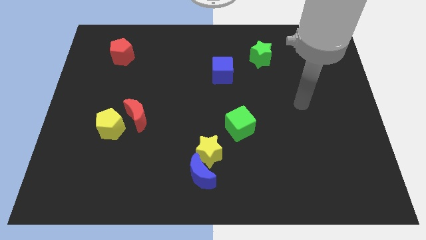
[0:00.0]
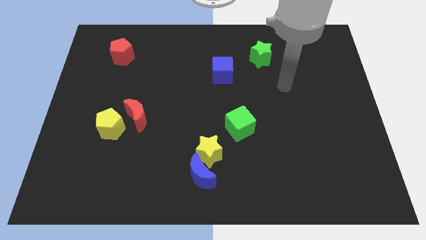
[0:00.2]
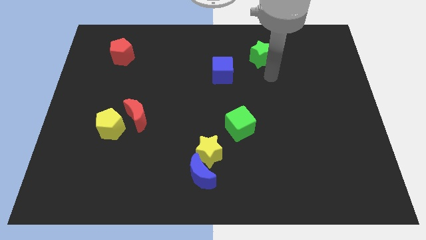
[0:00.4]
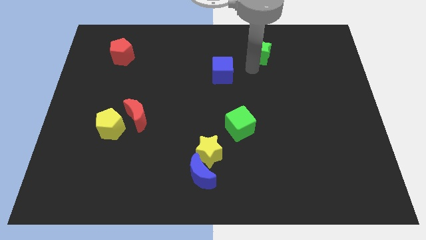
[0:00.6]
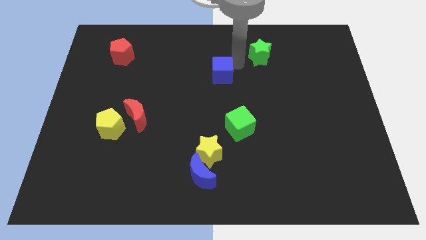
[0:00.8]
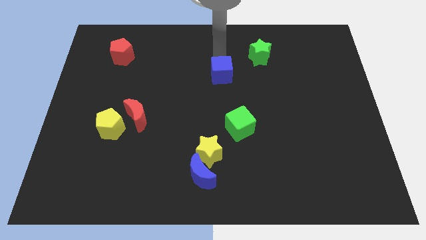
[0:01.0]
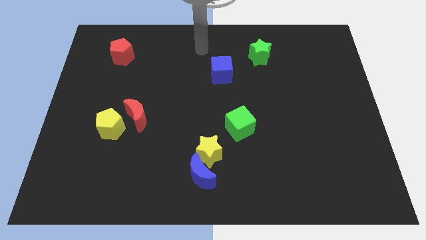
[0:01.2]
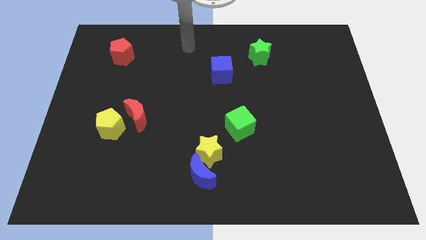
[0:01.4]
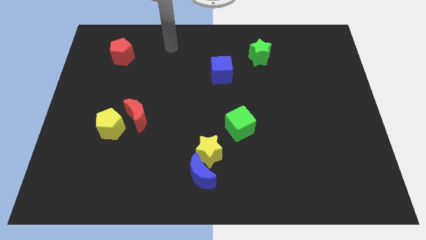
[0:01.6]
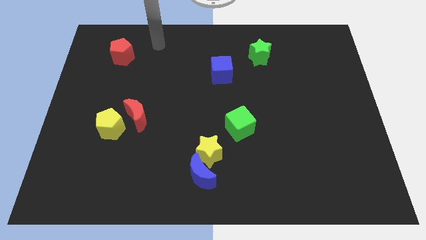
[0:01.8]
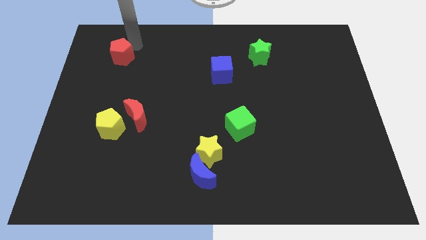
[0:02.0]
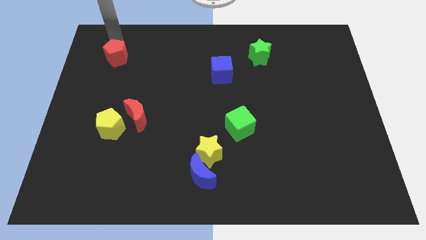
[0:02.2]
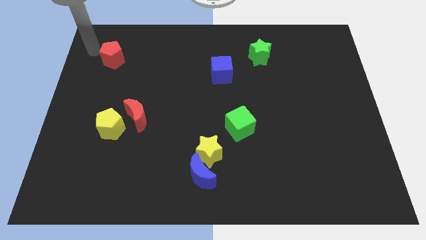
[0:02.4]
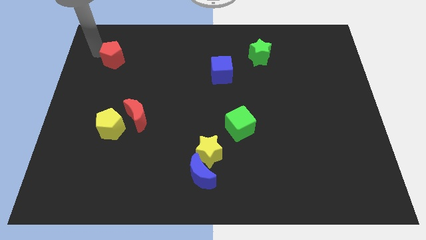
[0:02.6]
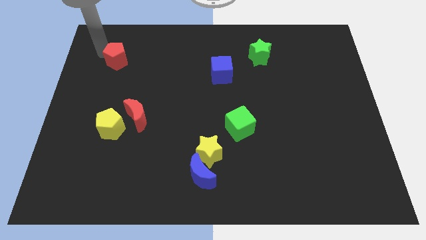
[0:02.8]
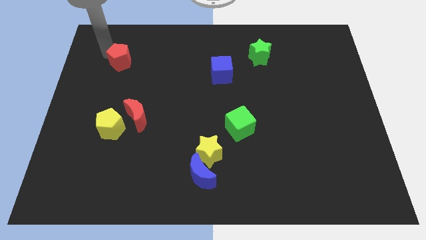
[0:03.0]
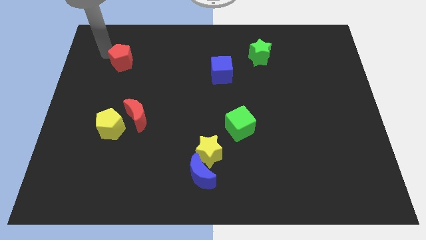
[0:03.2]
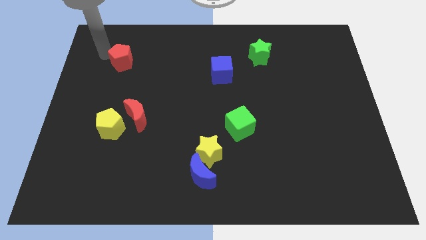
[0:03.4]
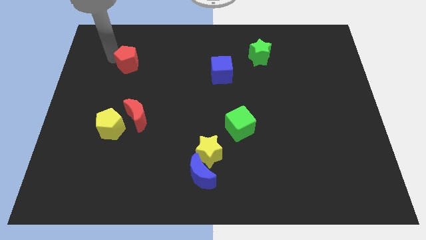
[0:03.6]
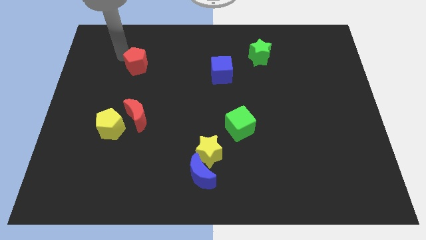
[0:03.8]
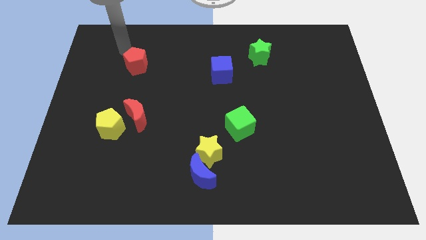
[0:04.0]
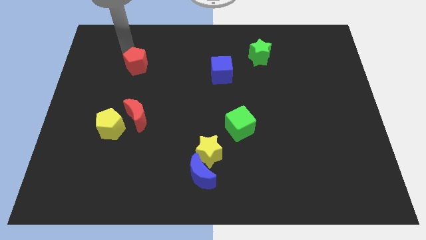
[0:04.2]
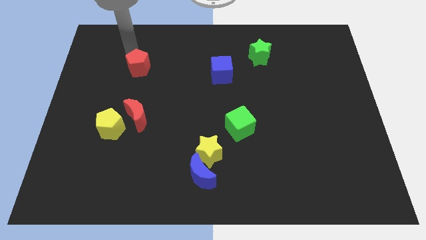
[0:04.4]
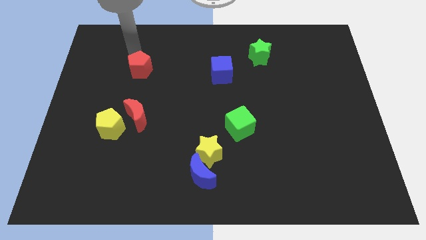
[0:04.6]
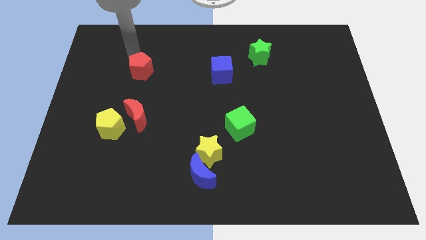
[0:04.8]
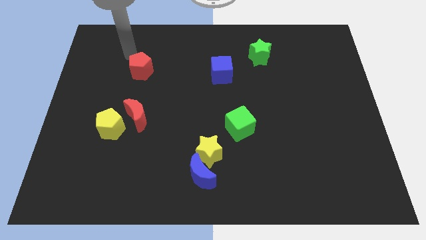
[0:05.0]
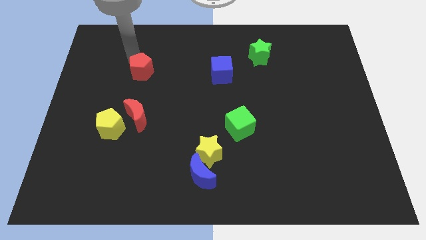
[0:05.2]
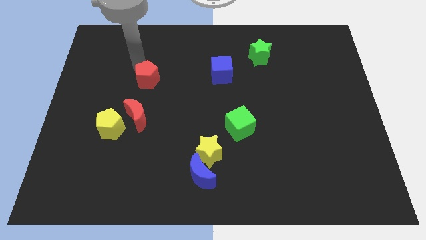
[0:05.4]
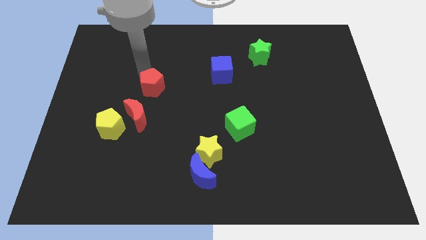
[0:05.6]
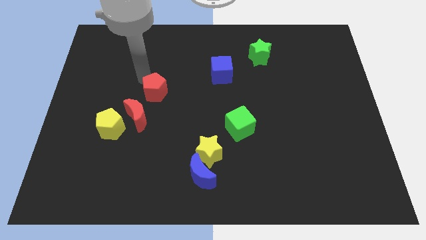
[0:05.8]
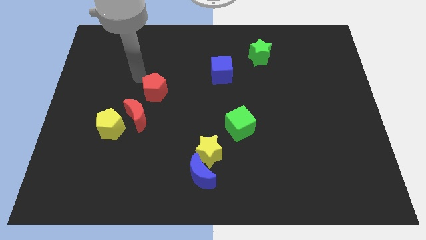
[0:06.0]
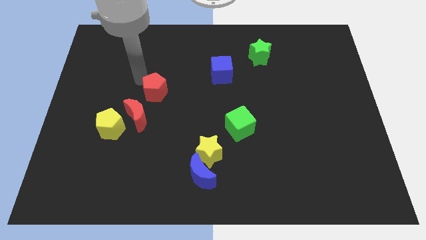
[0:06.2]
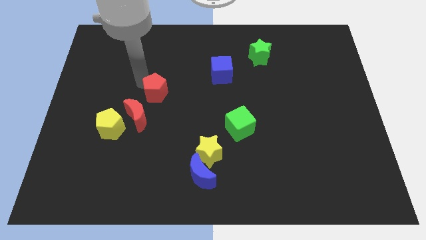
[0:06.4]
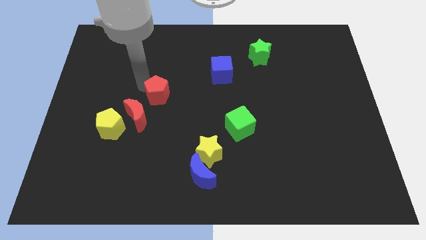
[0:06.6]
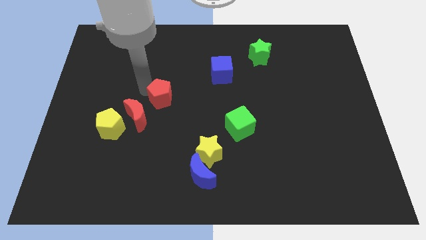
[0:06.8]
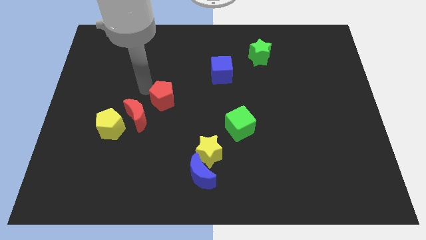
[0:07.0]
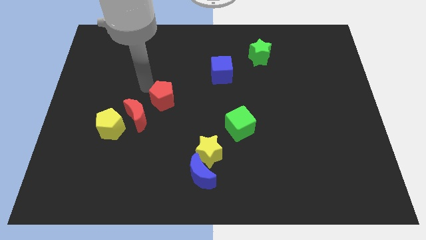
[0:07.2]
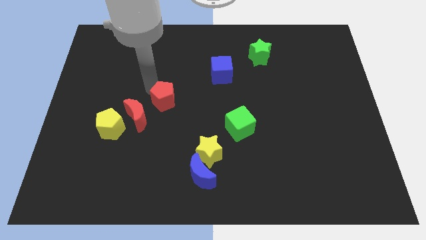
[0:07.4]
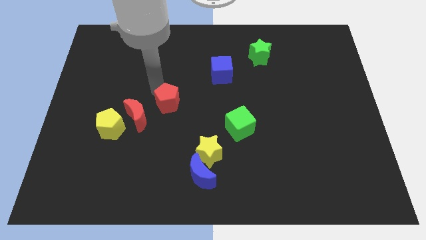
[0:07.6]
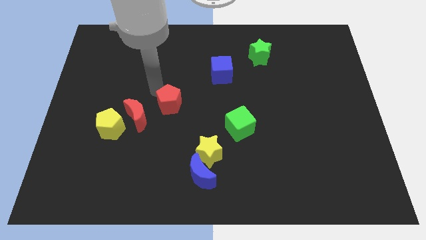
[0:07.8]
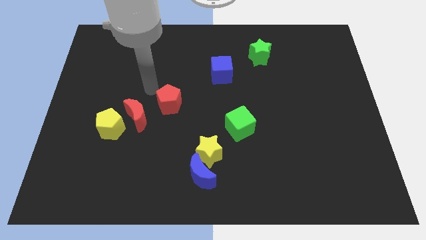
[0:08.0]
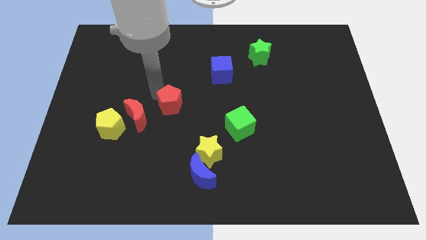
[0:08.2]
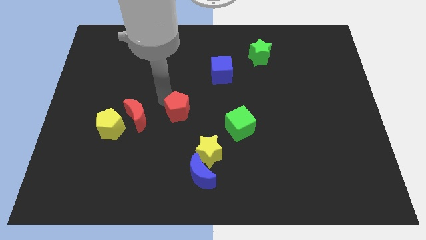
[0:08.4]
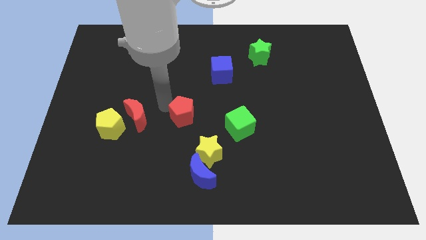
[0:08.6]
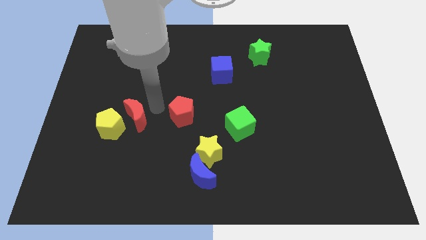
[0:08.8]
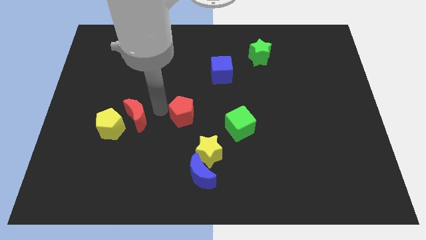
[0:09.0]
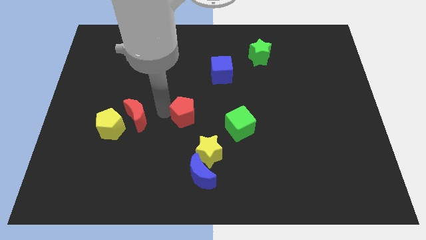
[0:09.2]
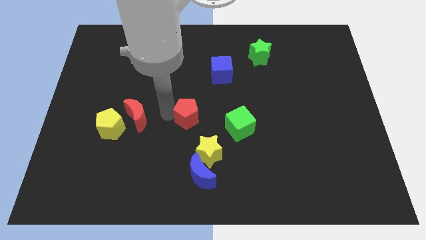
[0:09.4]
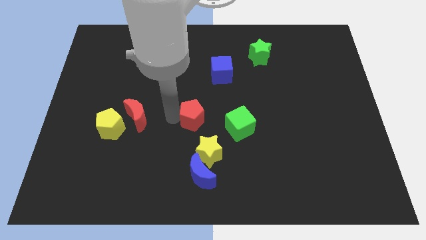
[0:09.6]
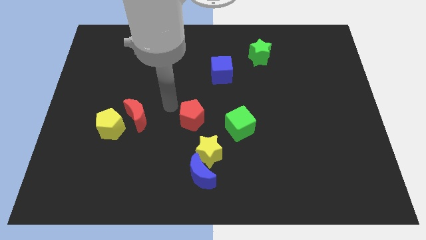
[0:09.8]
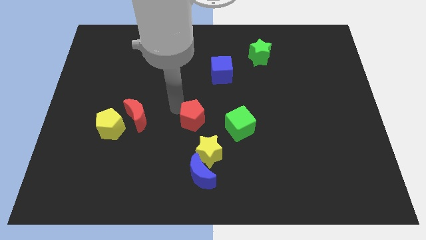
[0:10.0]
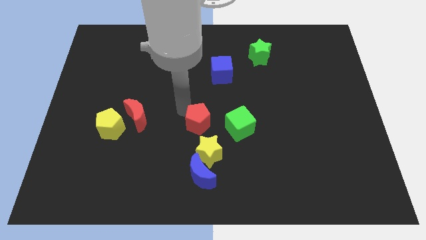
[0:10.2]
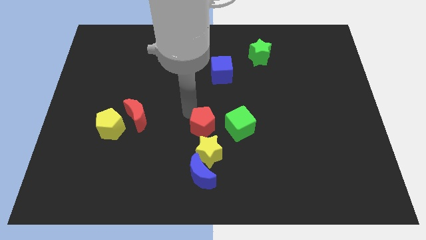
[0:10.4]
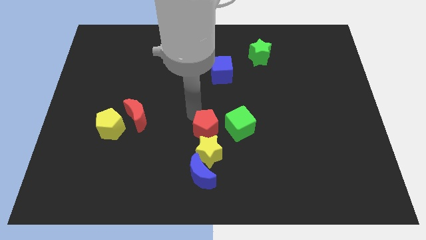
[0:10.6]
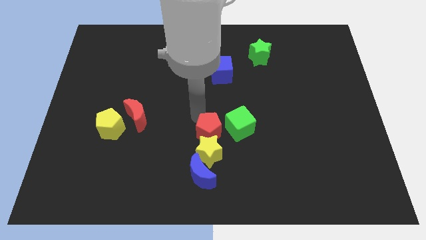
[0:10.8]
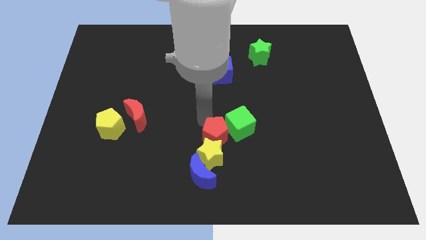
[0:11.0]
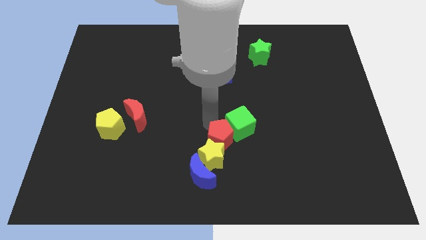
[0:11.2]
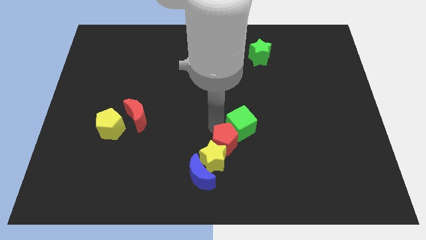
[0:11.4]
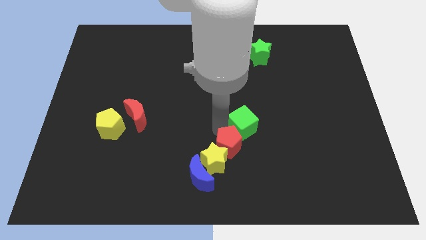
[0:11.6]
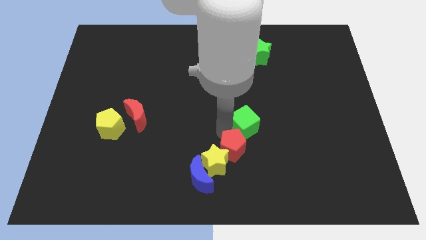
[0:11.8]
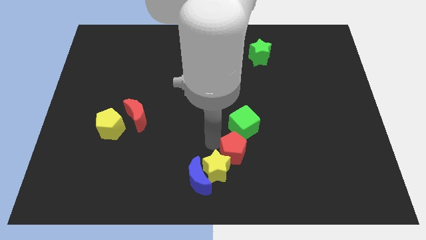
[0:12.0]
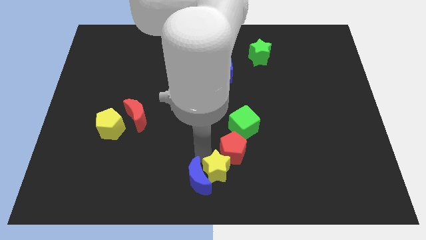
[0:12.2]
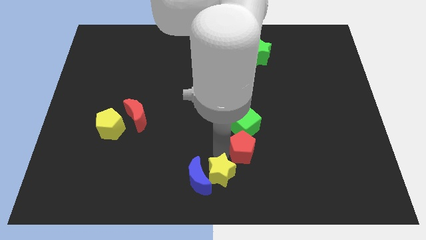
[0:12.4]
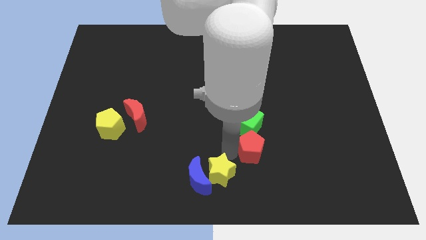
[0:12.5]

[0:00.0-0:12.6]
push the red pentagon to the bottom right of the green cube

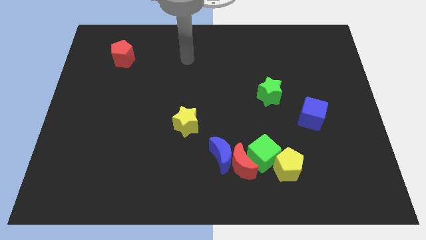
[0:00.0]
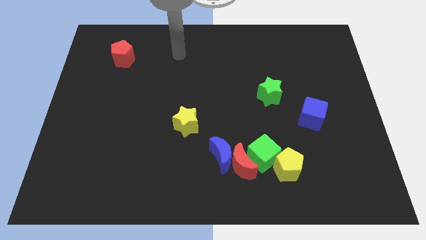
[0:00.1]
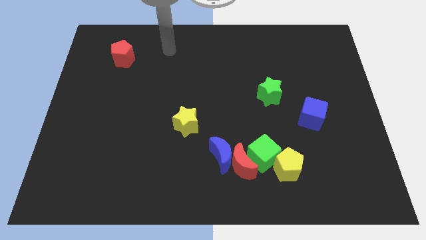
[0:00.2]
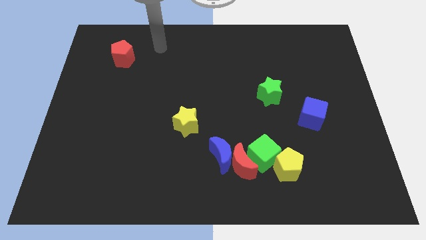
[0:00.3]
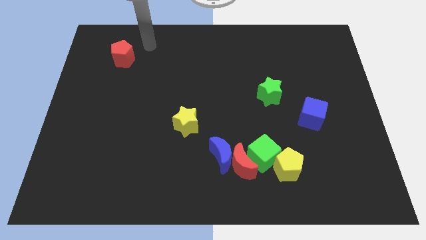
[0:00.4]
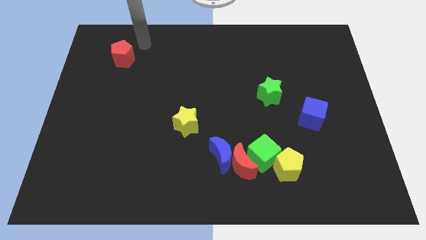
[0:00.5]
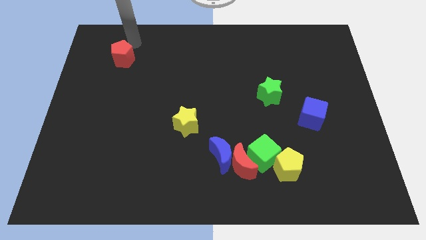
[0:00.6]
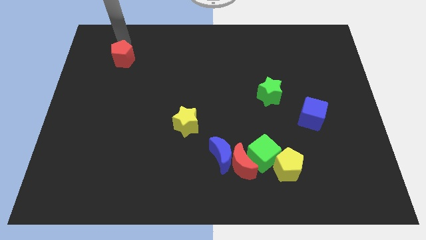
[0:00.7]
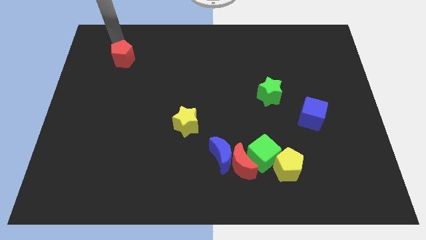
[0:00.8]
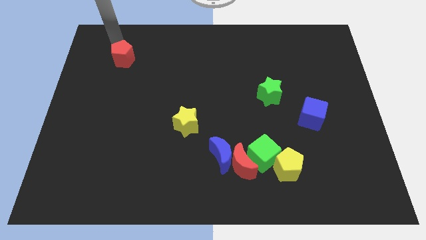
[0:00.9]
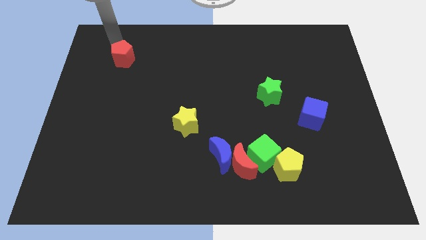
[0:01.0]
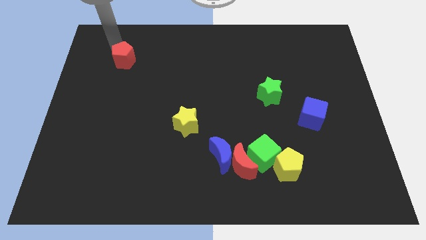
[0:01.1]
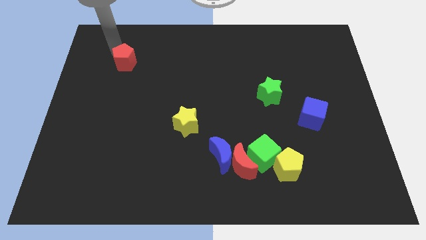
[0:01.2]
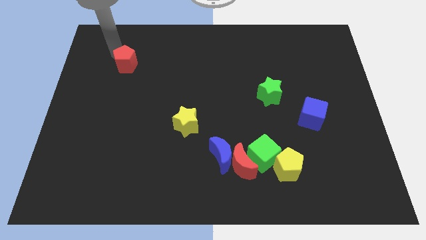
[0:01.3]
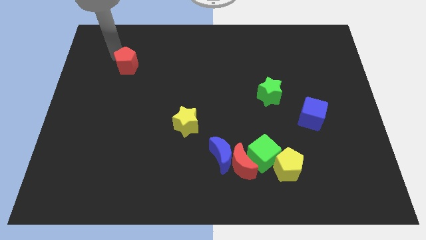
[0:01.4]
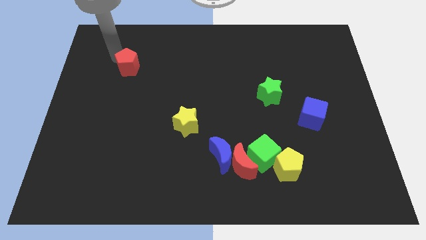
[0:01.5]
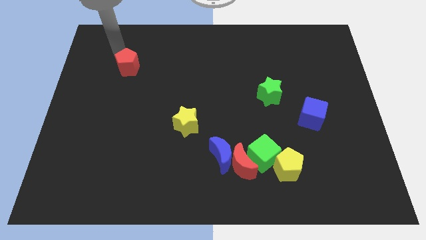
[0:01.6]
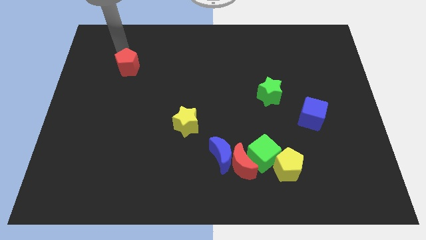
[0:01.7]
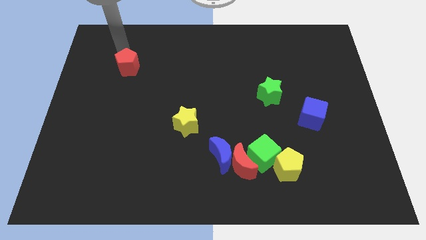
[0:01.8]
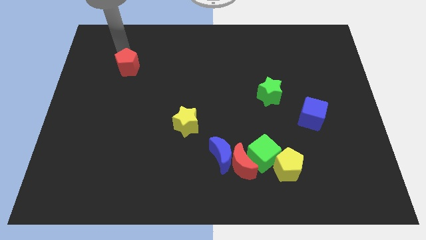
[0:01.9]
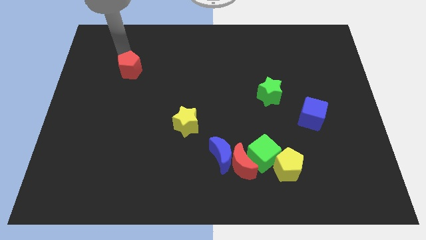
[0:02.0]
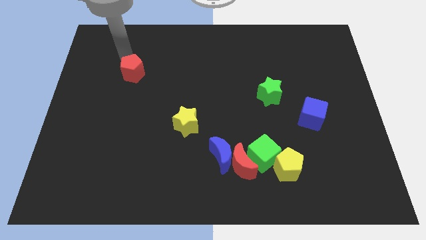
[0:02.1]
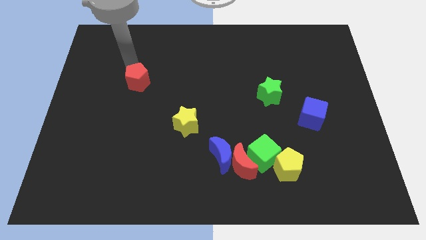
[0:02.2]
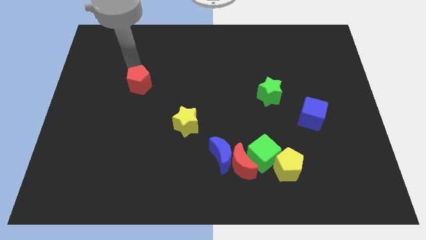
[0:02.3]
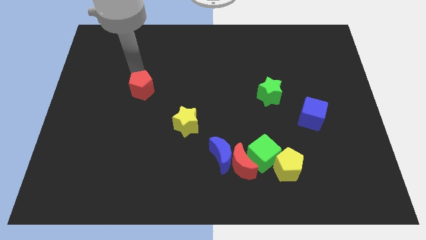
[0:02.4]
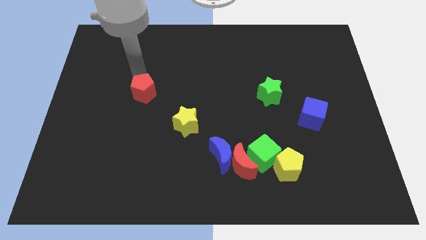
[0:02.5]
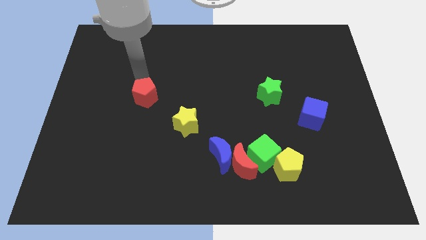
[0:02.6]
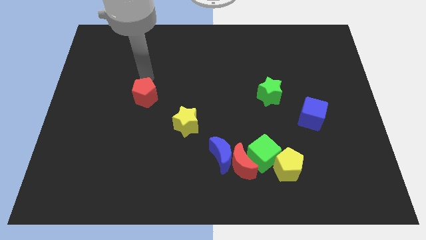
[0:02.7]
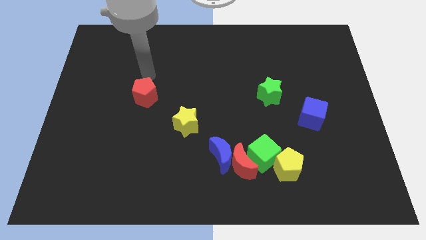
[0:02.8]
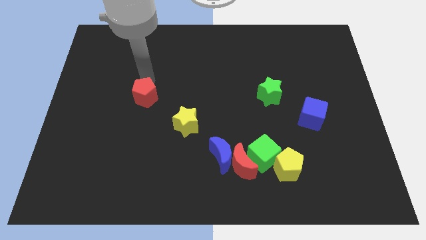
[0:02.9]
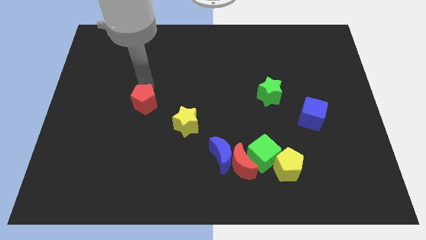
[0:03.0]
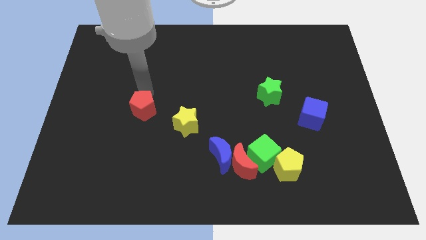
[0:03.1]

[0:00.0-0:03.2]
slide the red pentagon left of the yellow star
